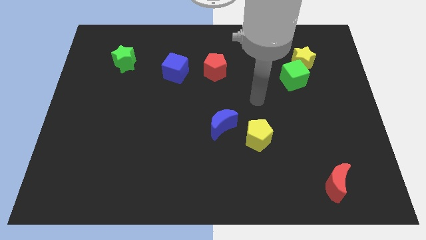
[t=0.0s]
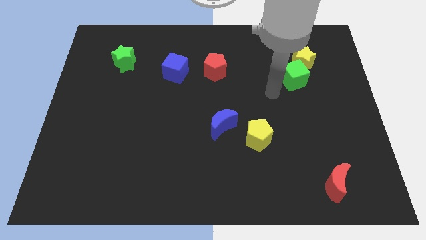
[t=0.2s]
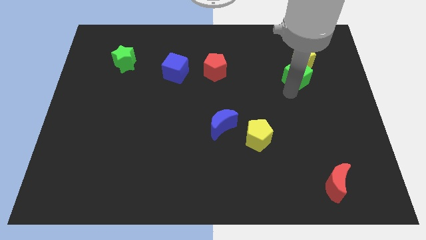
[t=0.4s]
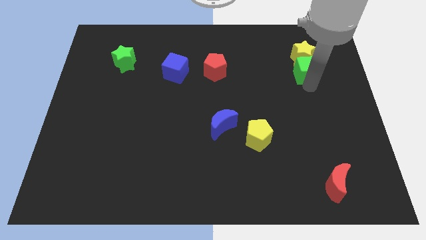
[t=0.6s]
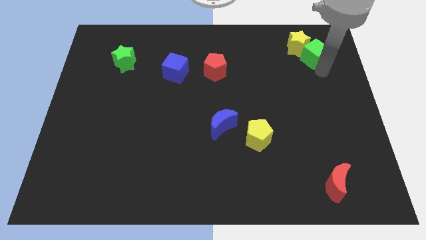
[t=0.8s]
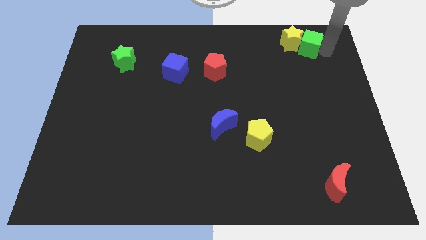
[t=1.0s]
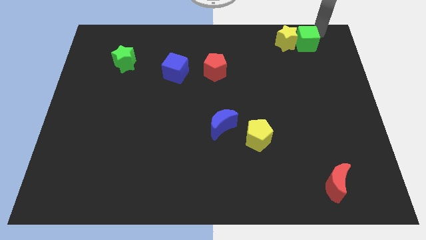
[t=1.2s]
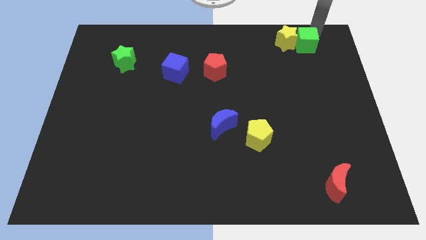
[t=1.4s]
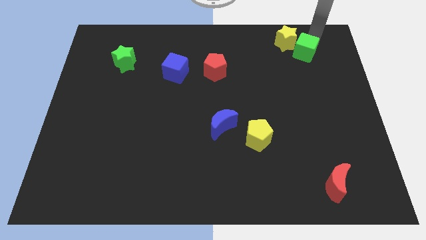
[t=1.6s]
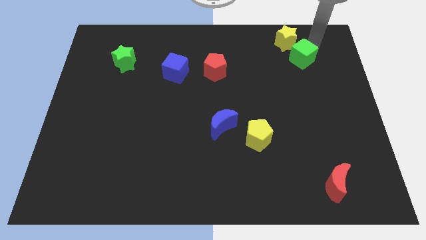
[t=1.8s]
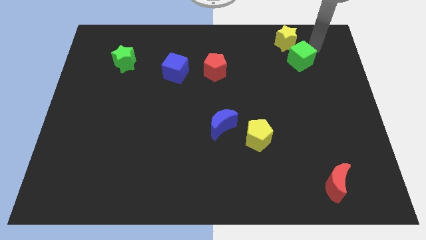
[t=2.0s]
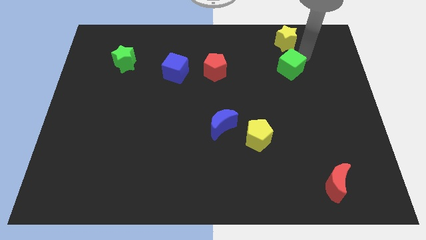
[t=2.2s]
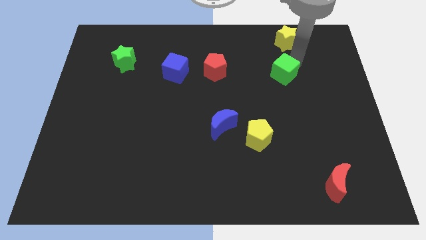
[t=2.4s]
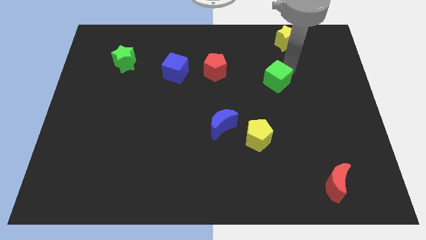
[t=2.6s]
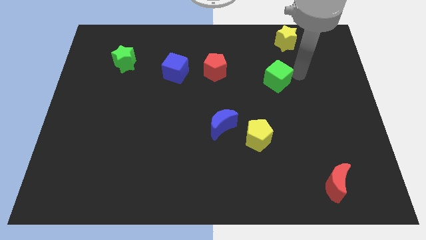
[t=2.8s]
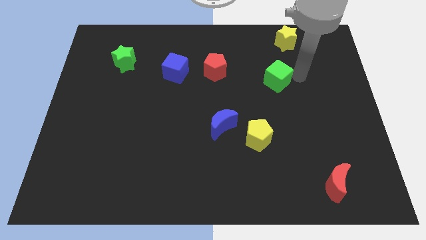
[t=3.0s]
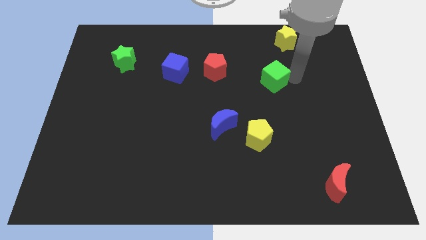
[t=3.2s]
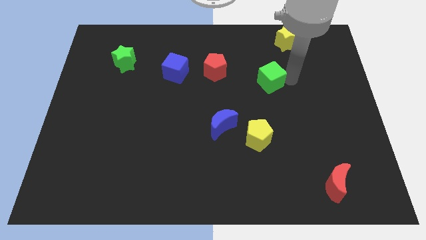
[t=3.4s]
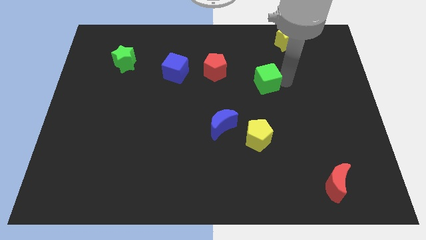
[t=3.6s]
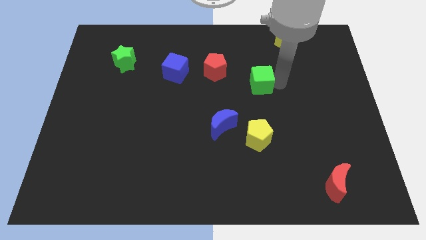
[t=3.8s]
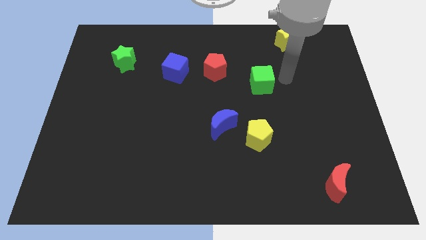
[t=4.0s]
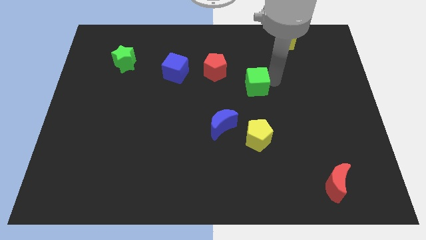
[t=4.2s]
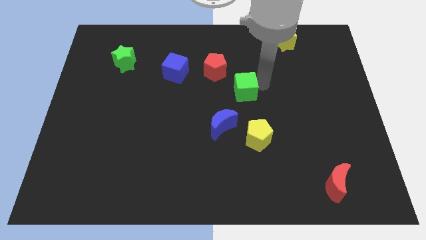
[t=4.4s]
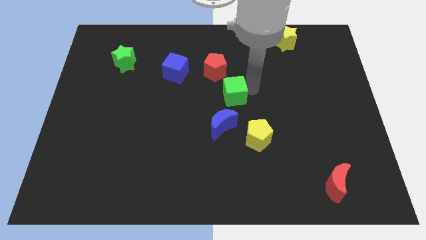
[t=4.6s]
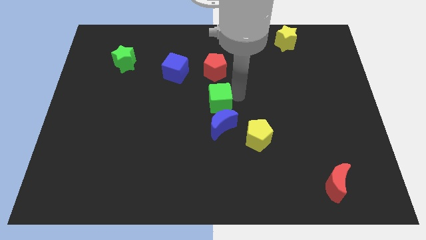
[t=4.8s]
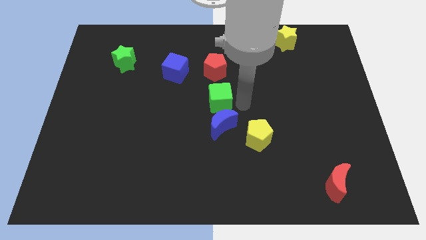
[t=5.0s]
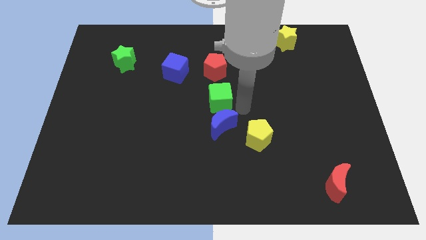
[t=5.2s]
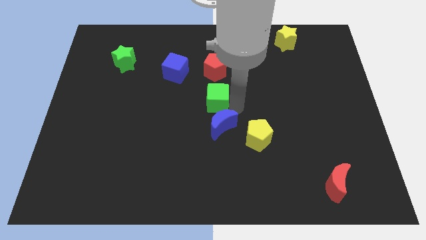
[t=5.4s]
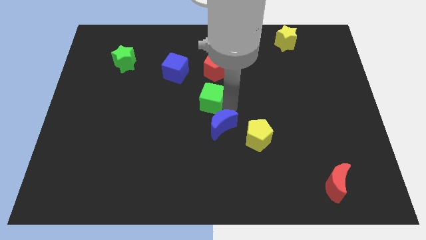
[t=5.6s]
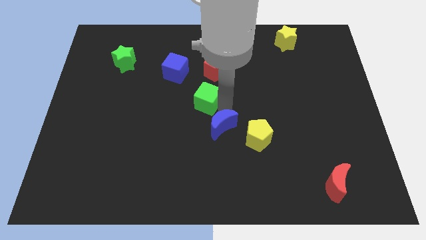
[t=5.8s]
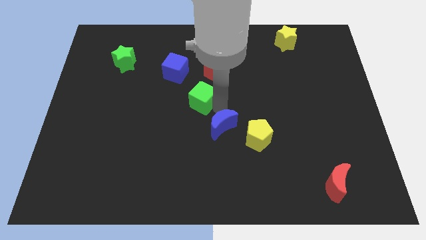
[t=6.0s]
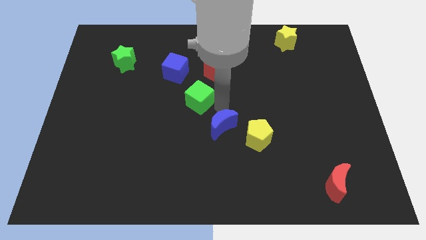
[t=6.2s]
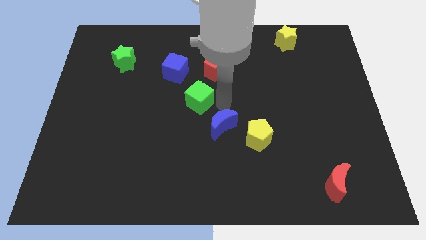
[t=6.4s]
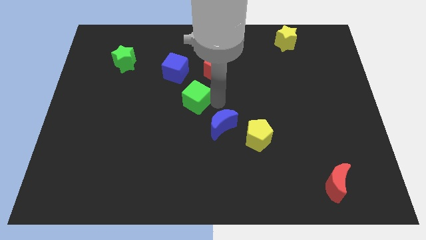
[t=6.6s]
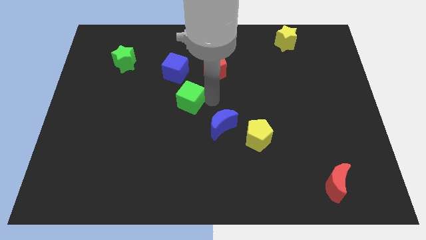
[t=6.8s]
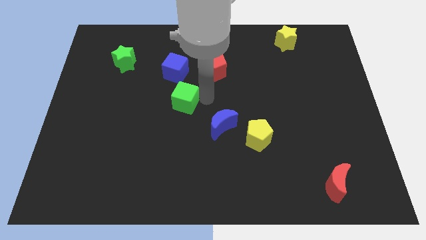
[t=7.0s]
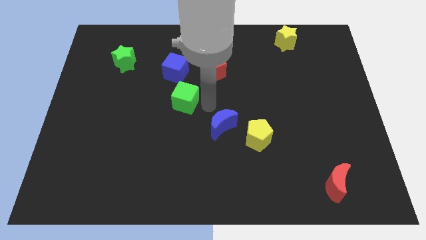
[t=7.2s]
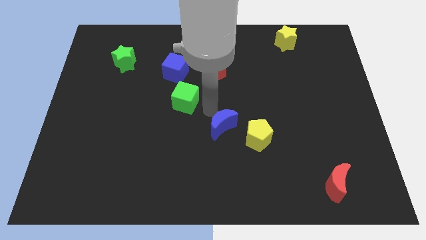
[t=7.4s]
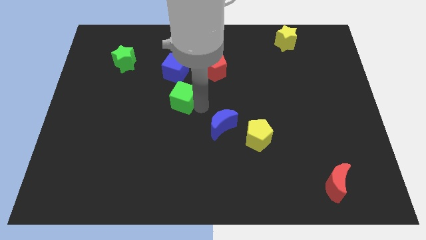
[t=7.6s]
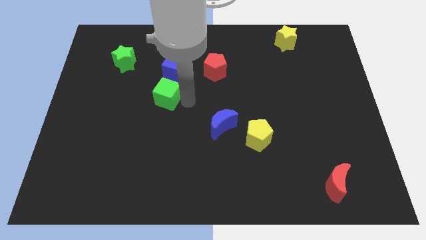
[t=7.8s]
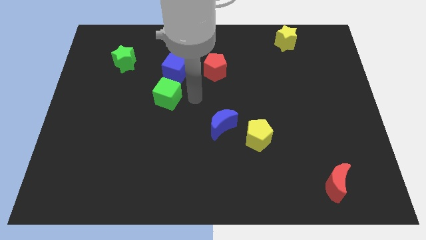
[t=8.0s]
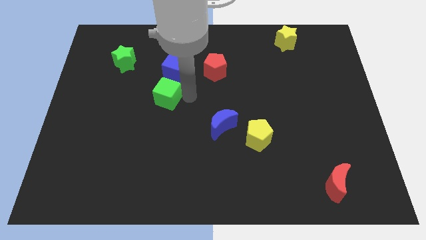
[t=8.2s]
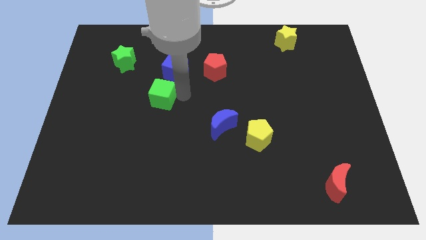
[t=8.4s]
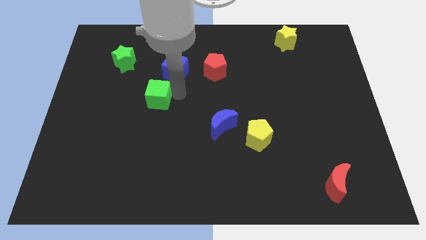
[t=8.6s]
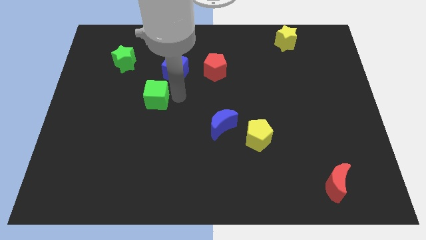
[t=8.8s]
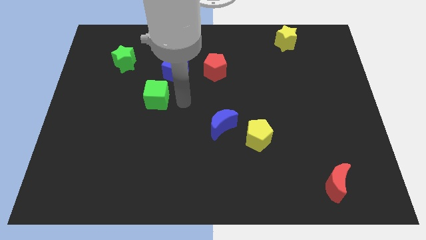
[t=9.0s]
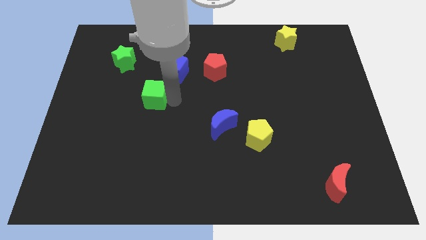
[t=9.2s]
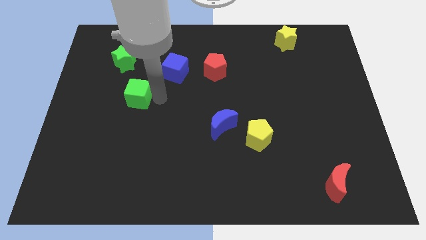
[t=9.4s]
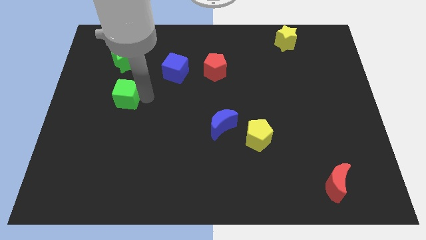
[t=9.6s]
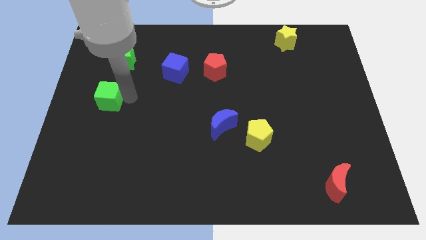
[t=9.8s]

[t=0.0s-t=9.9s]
slide the green cube to the left side

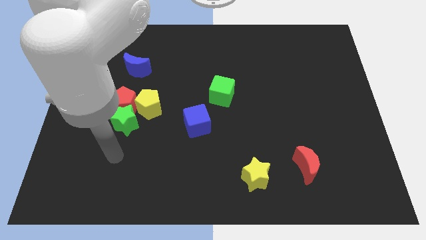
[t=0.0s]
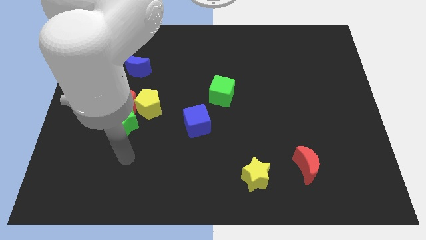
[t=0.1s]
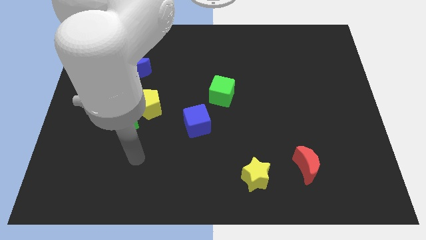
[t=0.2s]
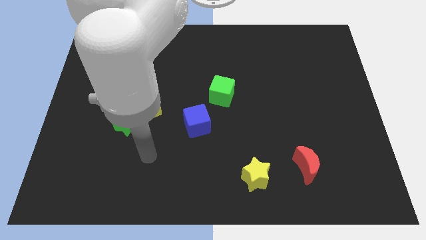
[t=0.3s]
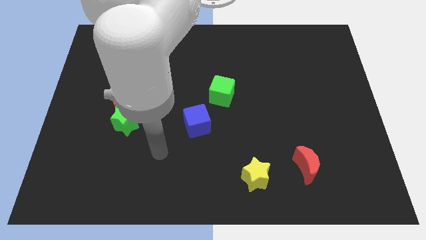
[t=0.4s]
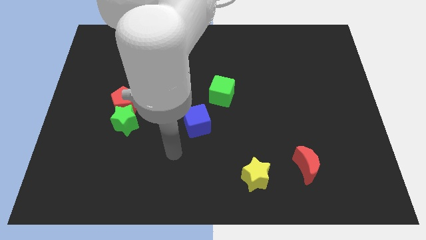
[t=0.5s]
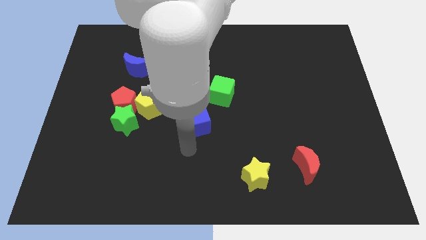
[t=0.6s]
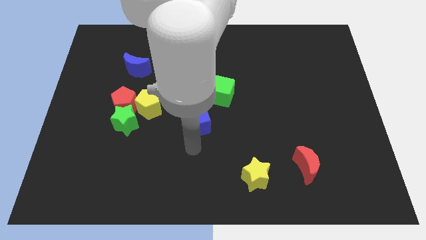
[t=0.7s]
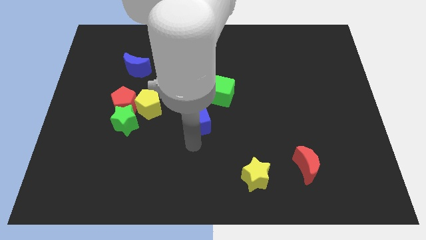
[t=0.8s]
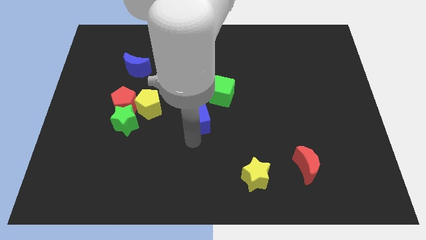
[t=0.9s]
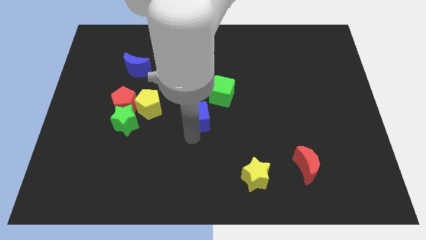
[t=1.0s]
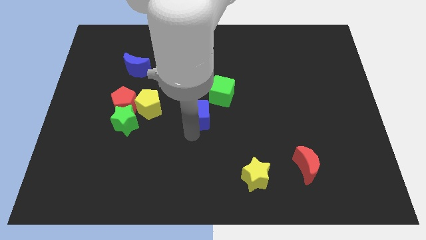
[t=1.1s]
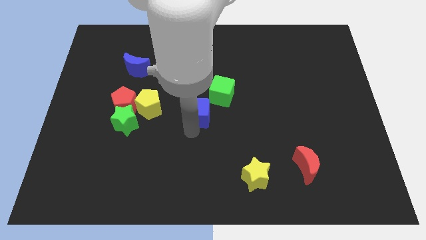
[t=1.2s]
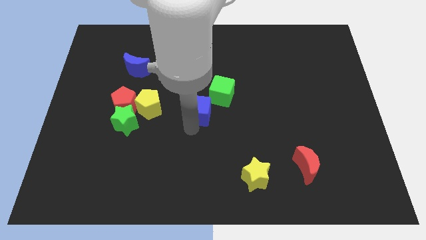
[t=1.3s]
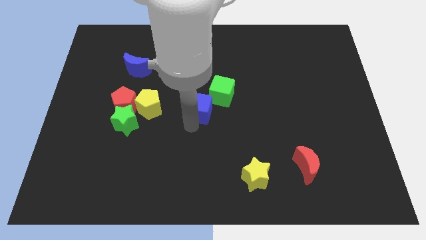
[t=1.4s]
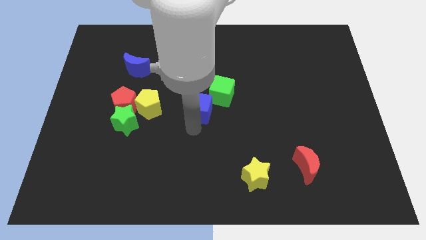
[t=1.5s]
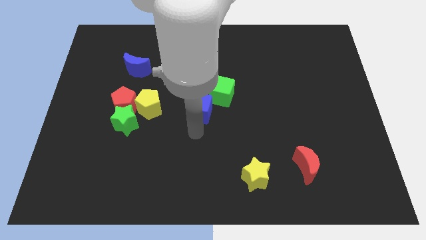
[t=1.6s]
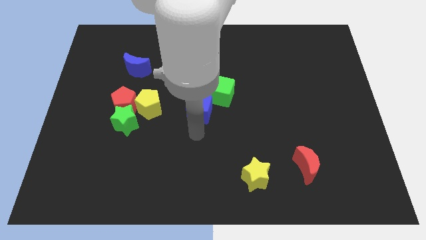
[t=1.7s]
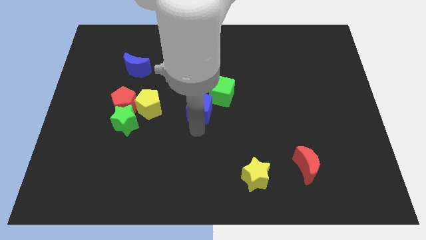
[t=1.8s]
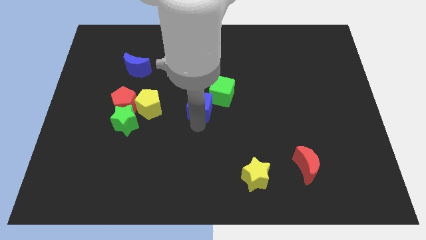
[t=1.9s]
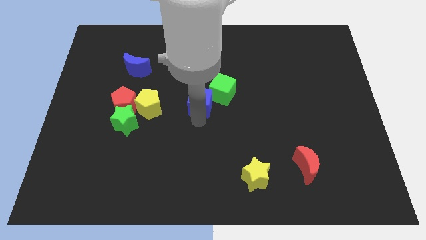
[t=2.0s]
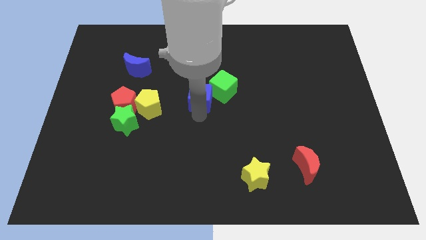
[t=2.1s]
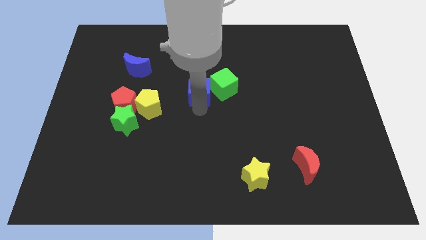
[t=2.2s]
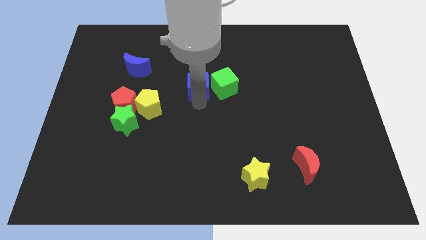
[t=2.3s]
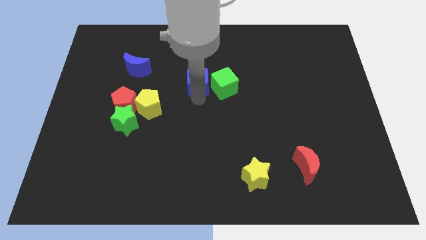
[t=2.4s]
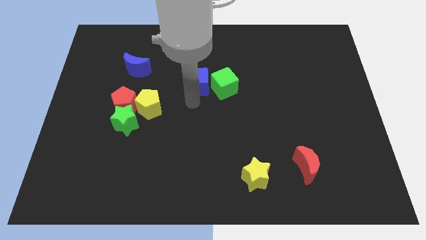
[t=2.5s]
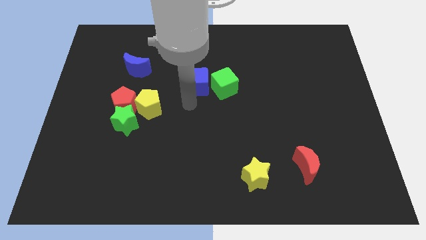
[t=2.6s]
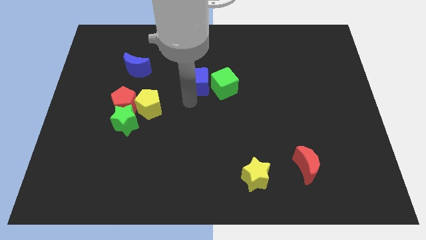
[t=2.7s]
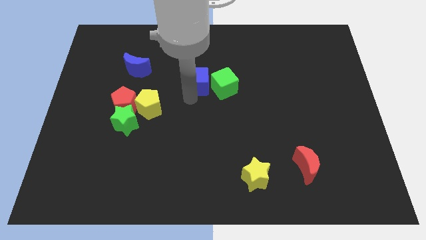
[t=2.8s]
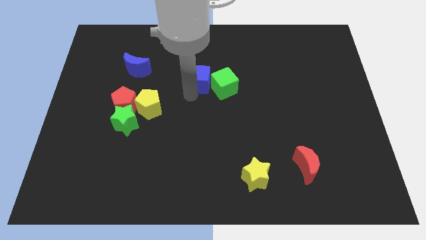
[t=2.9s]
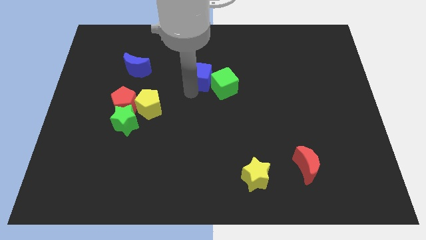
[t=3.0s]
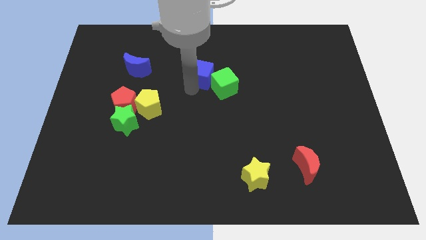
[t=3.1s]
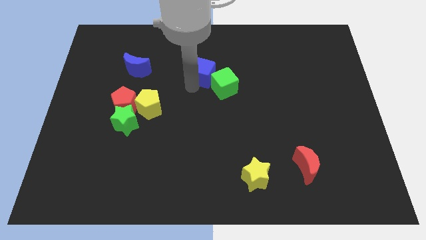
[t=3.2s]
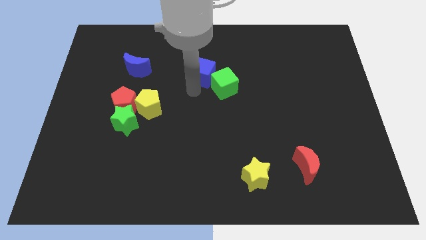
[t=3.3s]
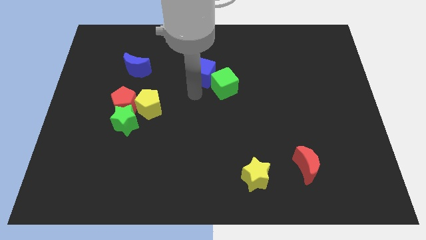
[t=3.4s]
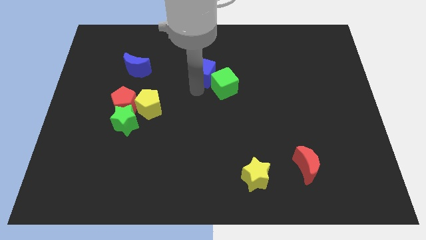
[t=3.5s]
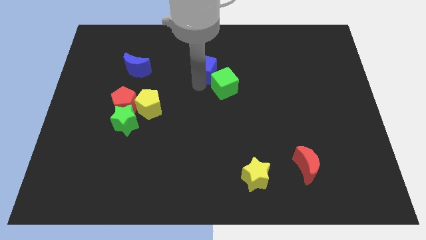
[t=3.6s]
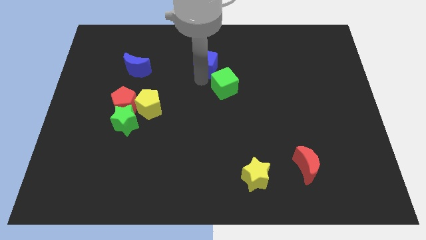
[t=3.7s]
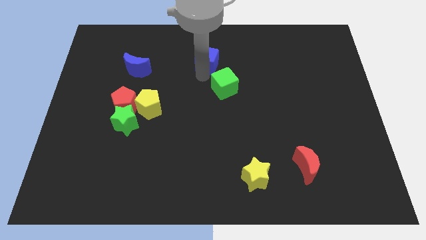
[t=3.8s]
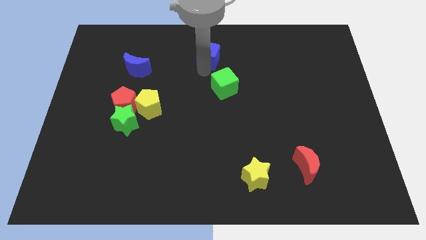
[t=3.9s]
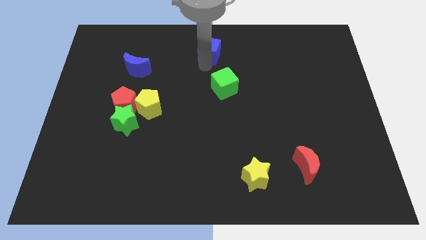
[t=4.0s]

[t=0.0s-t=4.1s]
slide the blue cube to the towards your base
